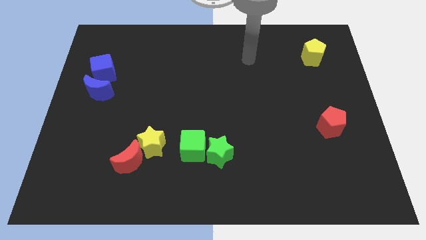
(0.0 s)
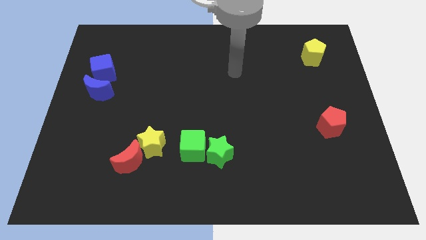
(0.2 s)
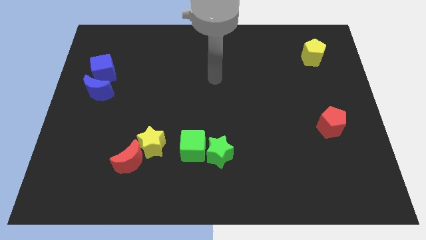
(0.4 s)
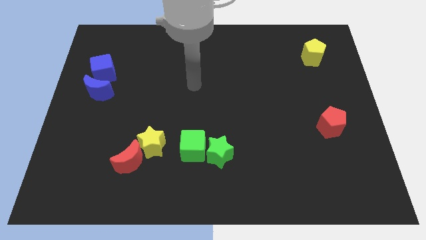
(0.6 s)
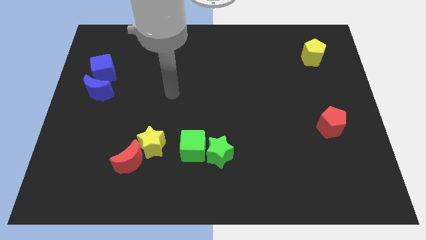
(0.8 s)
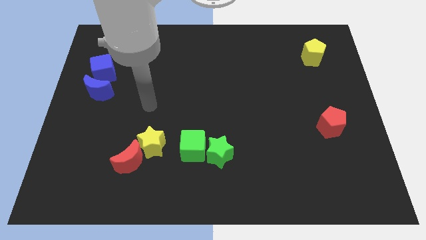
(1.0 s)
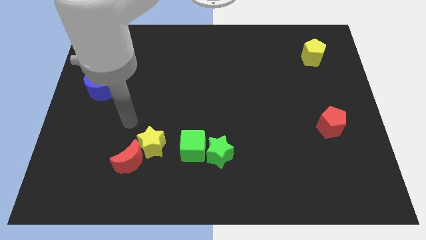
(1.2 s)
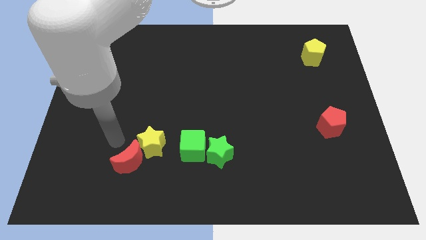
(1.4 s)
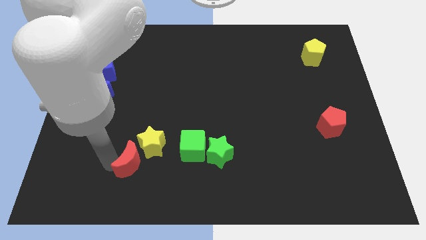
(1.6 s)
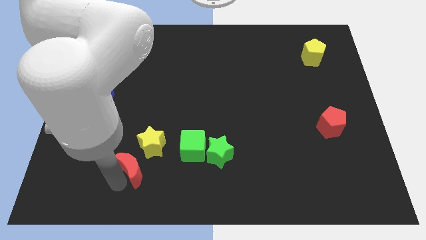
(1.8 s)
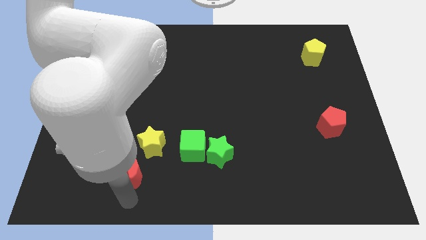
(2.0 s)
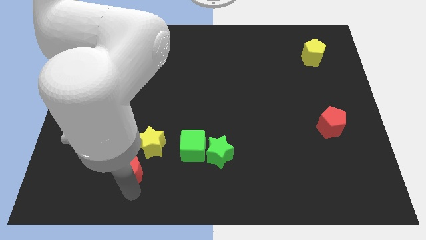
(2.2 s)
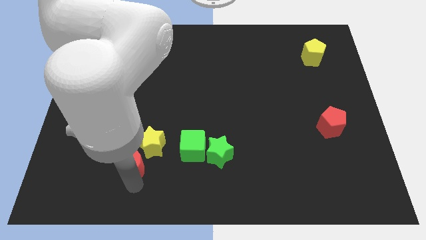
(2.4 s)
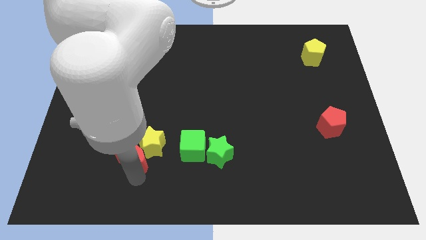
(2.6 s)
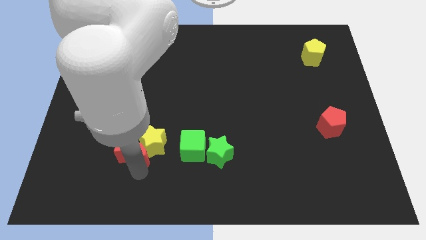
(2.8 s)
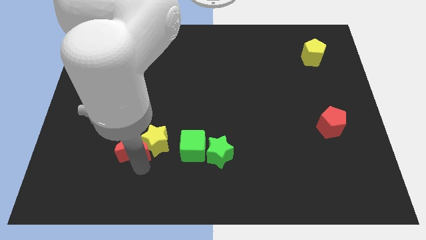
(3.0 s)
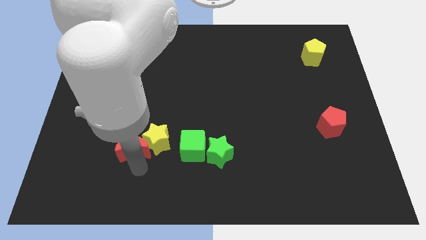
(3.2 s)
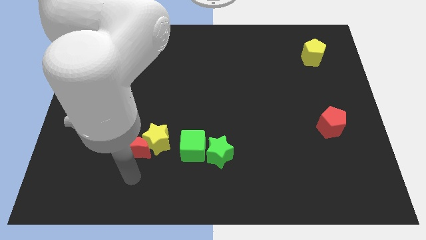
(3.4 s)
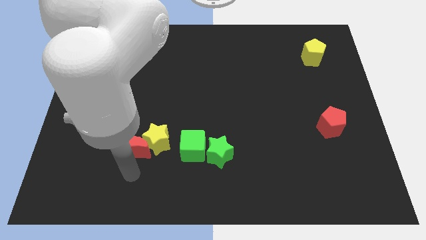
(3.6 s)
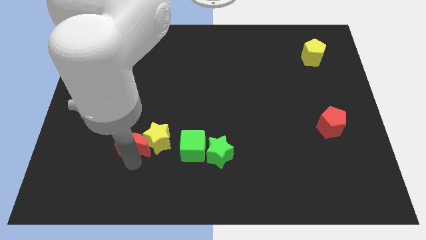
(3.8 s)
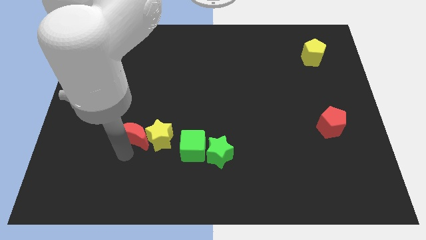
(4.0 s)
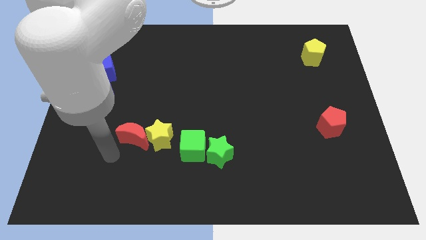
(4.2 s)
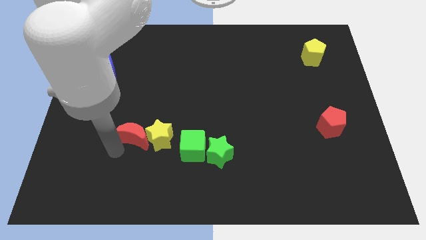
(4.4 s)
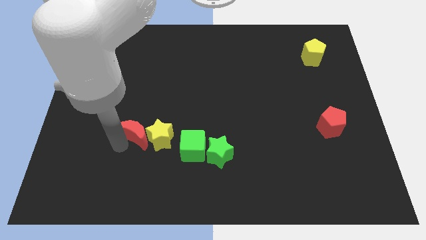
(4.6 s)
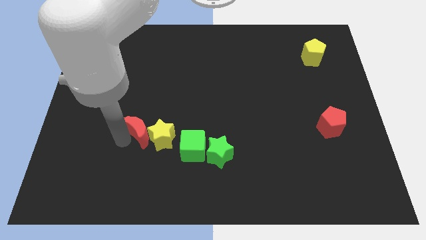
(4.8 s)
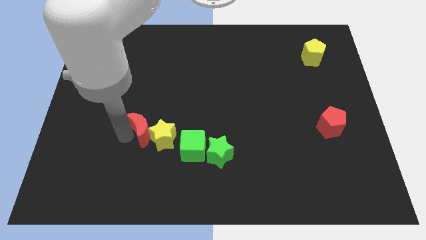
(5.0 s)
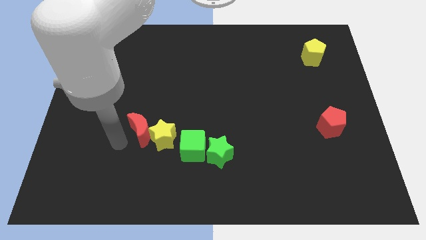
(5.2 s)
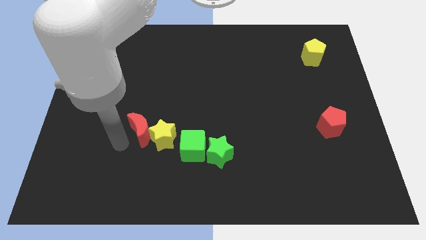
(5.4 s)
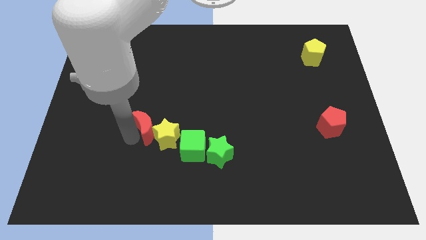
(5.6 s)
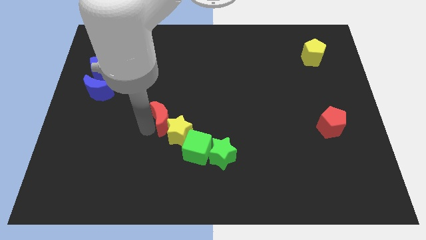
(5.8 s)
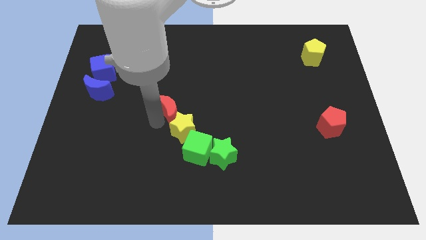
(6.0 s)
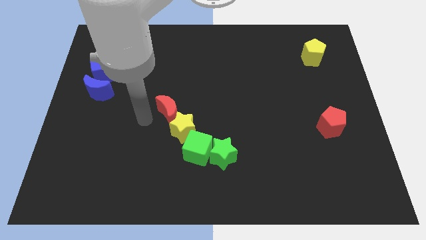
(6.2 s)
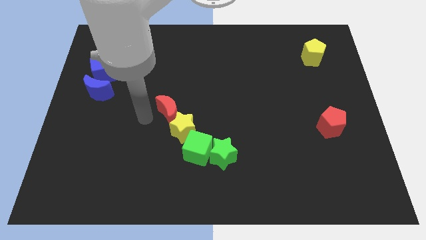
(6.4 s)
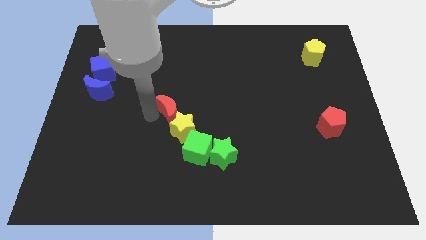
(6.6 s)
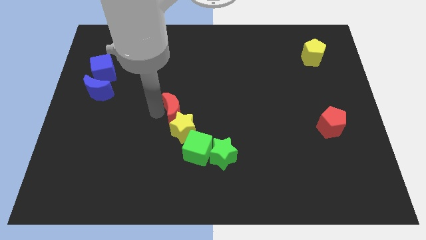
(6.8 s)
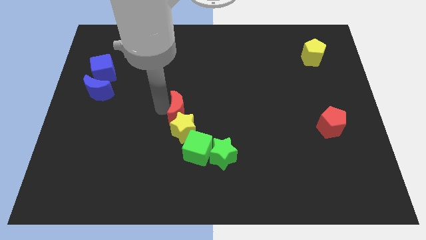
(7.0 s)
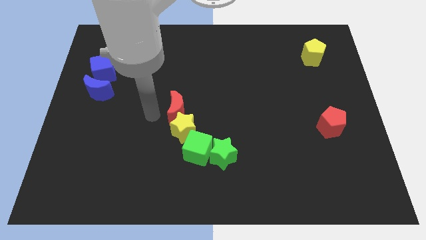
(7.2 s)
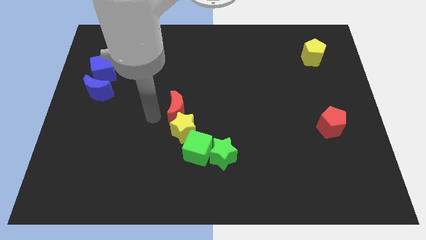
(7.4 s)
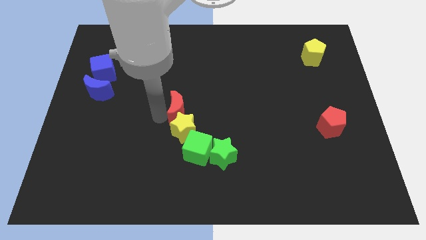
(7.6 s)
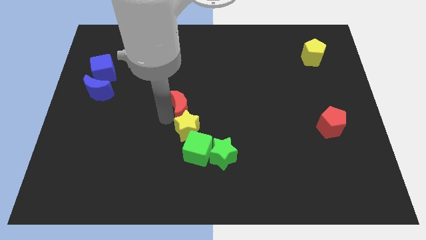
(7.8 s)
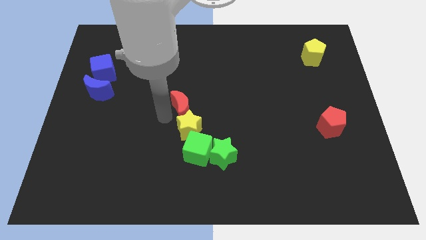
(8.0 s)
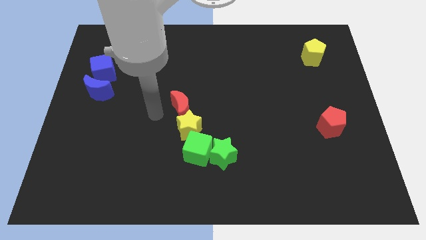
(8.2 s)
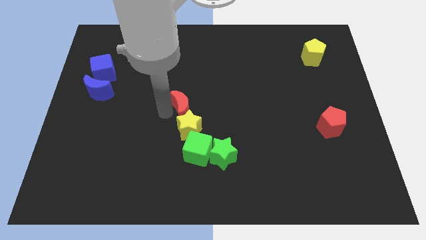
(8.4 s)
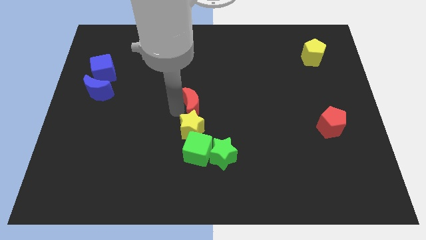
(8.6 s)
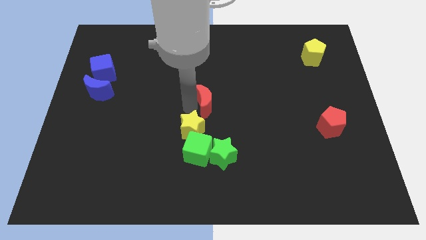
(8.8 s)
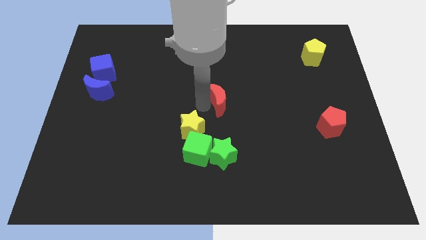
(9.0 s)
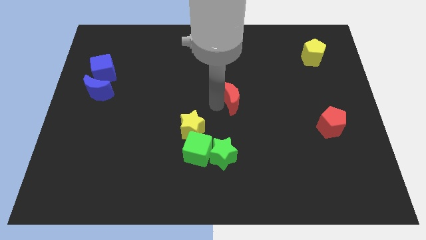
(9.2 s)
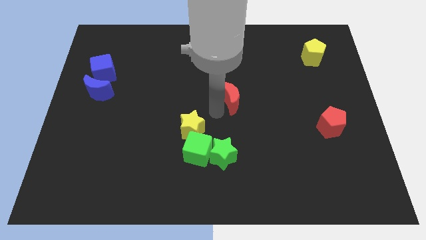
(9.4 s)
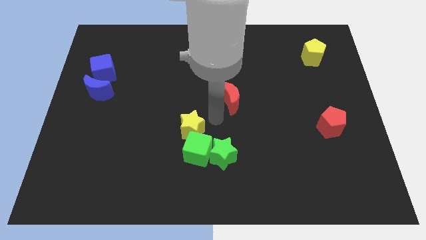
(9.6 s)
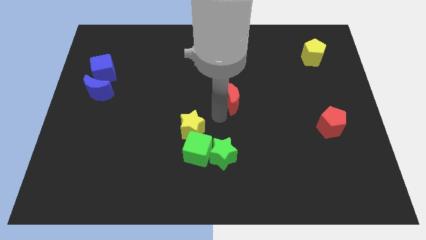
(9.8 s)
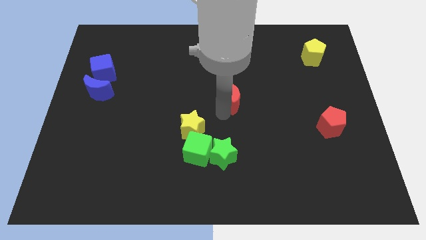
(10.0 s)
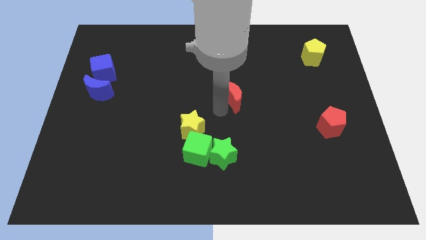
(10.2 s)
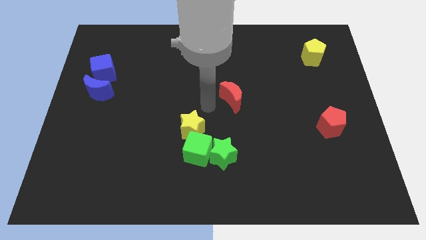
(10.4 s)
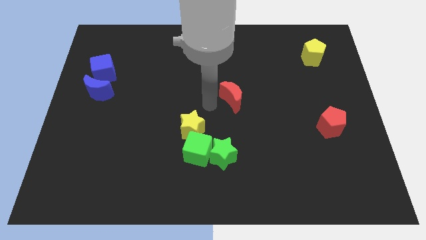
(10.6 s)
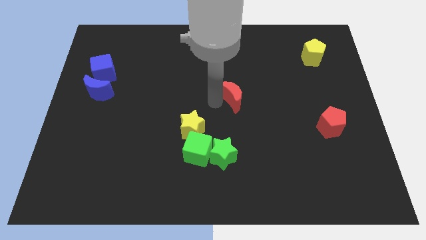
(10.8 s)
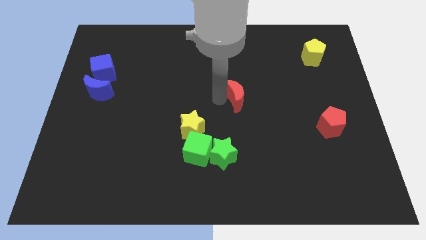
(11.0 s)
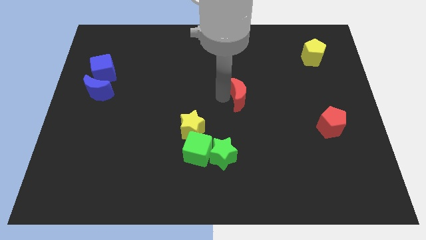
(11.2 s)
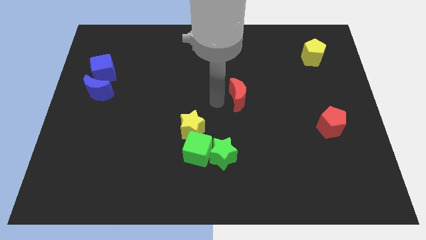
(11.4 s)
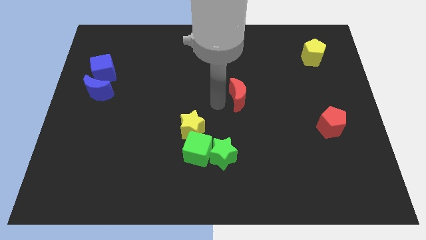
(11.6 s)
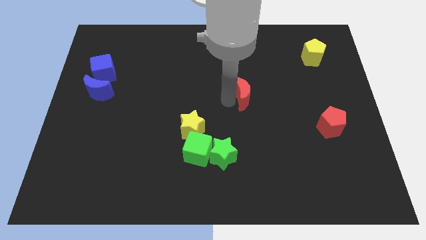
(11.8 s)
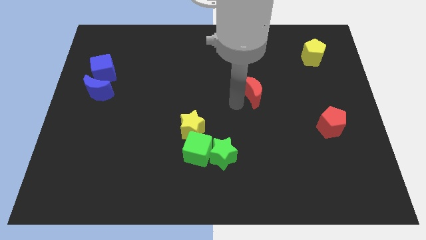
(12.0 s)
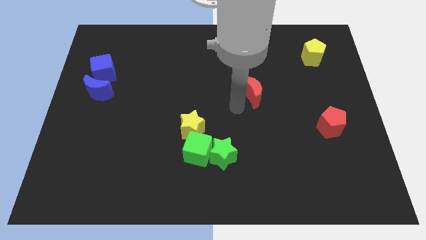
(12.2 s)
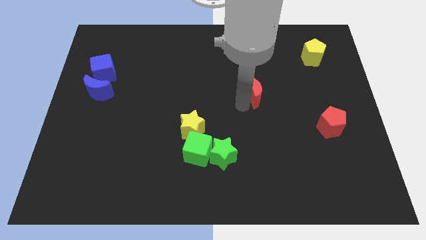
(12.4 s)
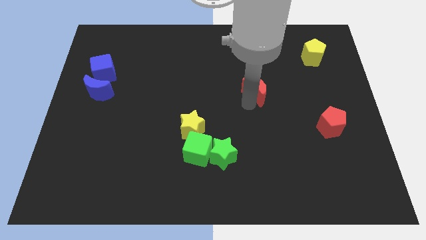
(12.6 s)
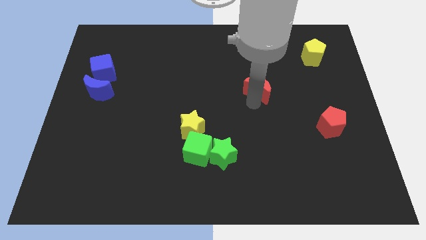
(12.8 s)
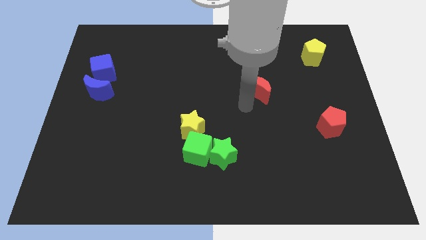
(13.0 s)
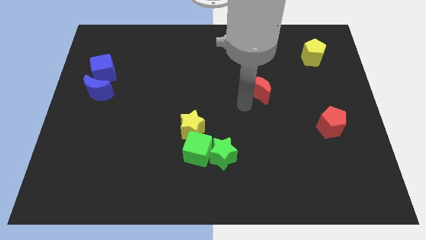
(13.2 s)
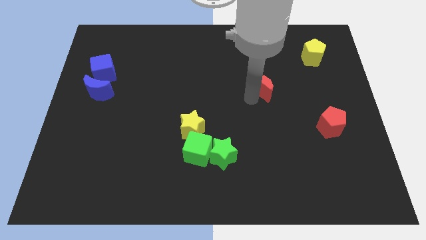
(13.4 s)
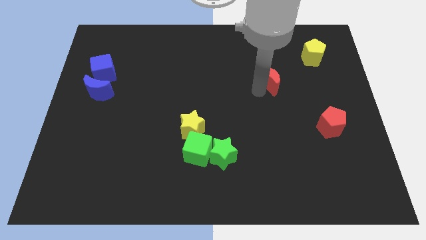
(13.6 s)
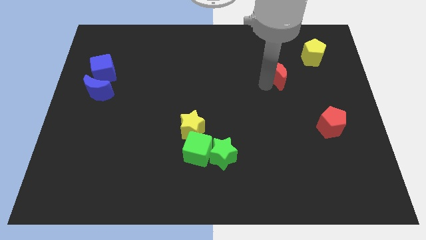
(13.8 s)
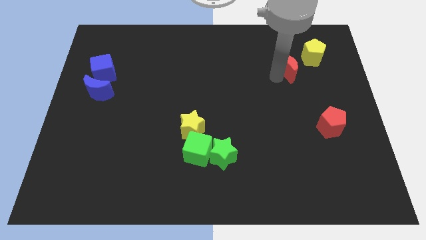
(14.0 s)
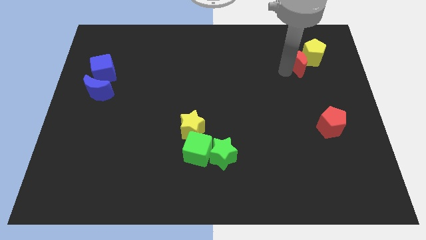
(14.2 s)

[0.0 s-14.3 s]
slide the red moon to the yellow pentagon

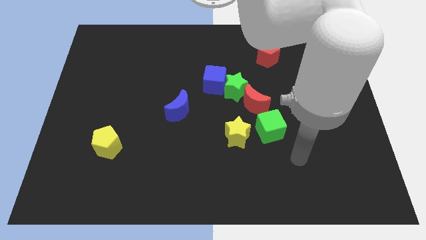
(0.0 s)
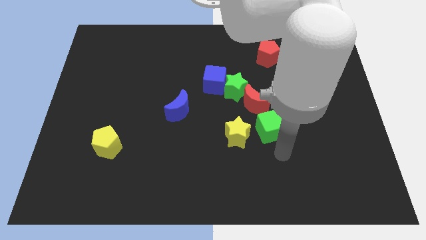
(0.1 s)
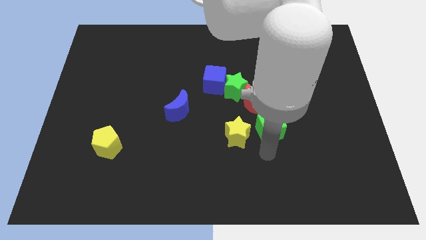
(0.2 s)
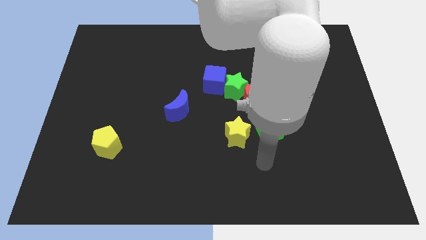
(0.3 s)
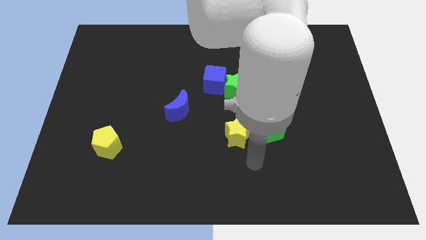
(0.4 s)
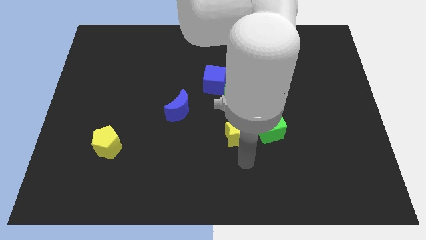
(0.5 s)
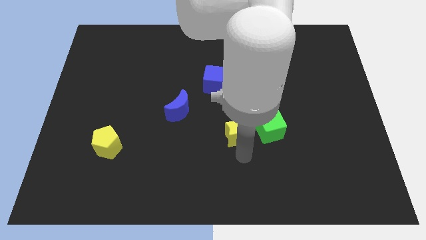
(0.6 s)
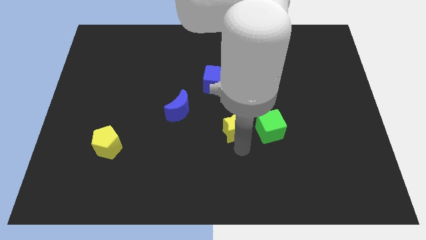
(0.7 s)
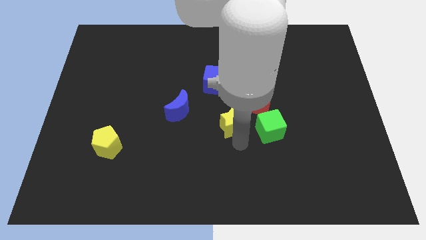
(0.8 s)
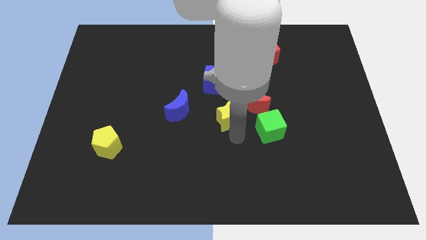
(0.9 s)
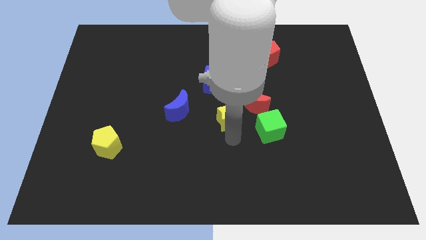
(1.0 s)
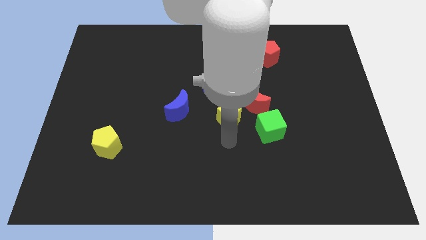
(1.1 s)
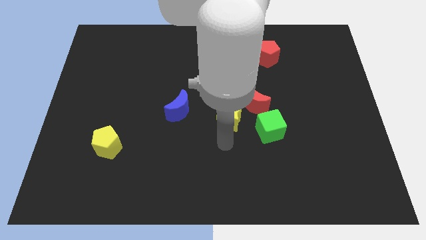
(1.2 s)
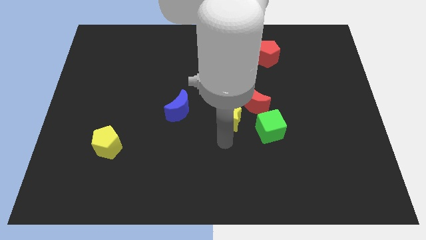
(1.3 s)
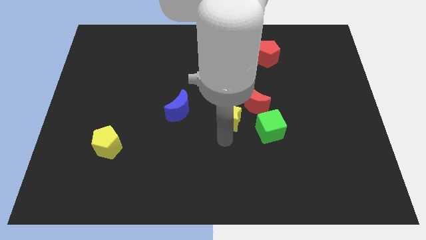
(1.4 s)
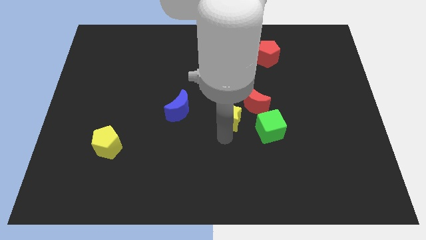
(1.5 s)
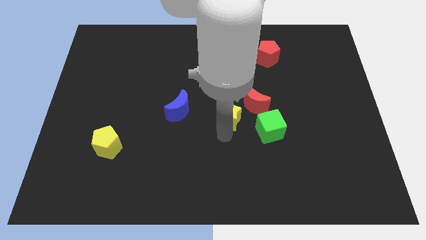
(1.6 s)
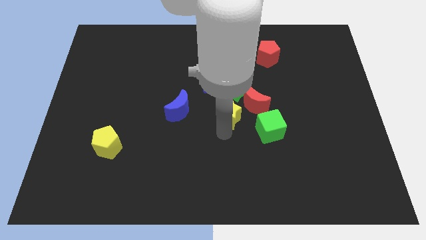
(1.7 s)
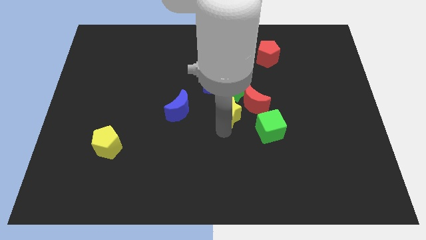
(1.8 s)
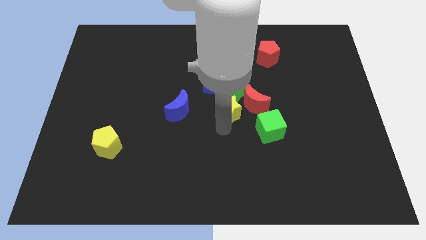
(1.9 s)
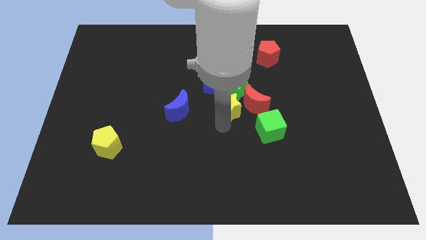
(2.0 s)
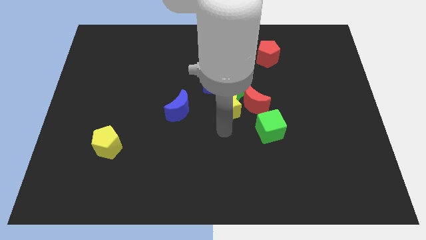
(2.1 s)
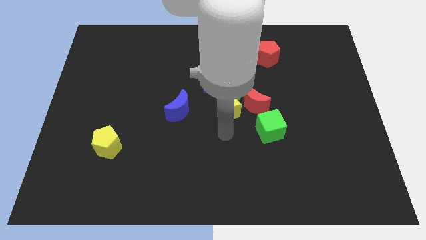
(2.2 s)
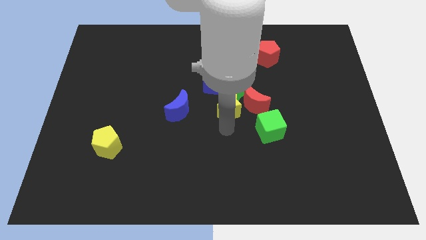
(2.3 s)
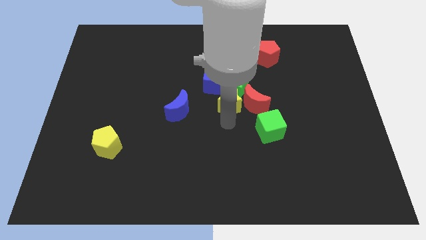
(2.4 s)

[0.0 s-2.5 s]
slide the yellow star next to the green star
